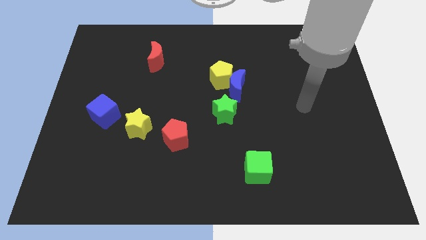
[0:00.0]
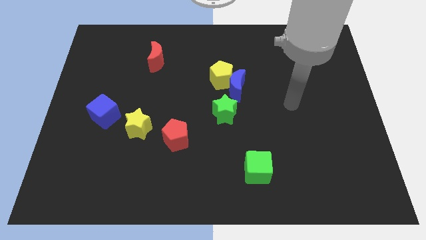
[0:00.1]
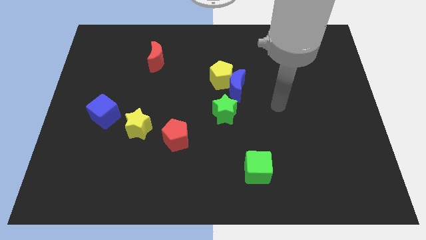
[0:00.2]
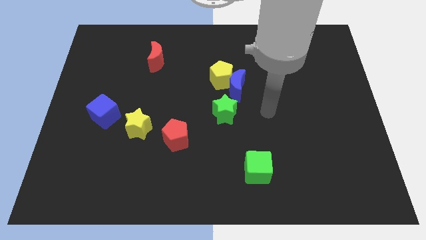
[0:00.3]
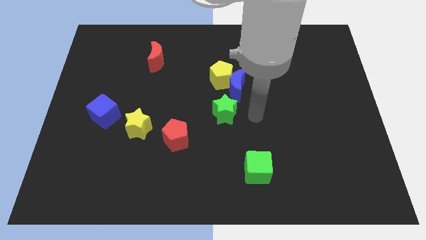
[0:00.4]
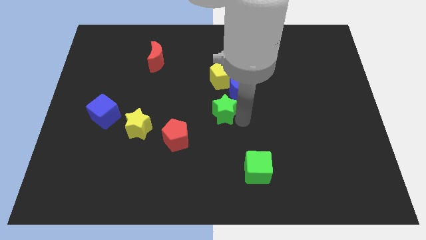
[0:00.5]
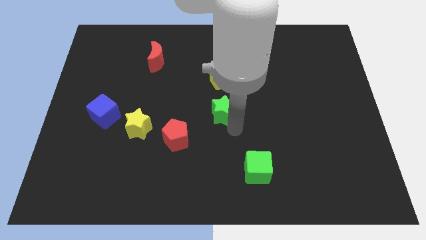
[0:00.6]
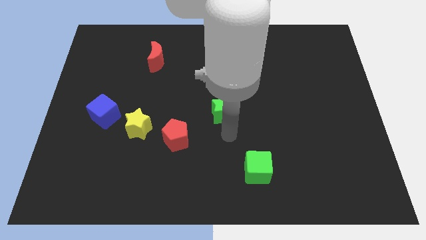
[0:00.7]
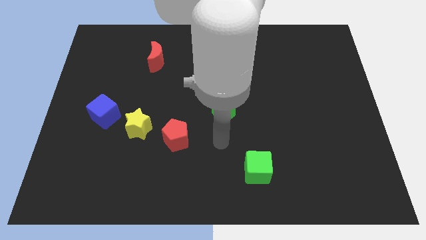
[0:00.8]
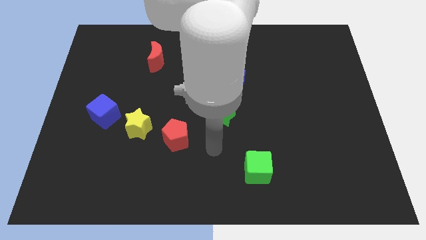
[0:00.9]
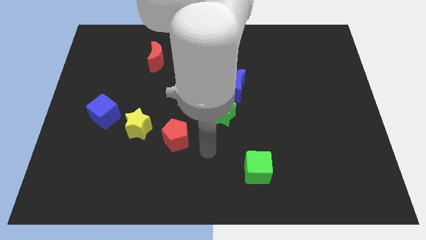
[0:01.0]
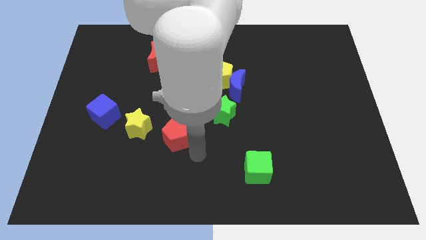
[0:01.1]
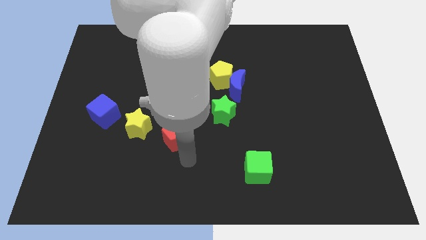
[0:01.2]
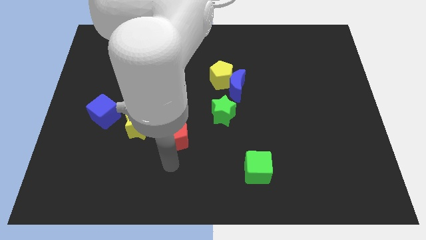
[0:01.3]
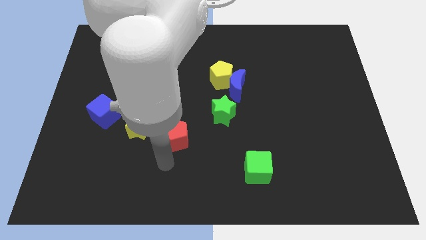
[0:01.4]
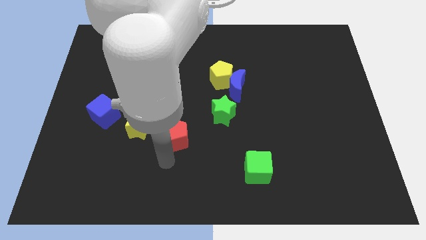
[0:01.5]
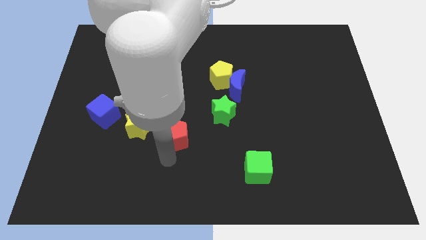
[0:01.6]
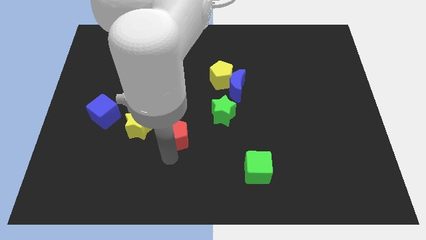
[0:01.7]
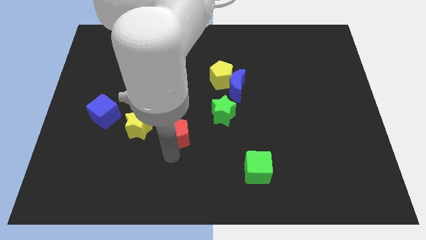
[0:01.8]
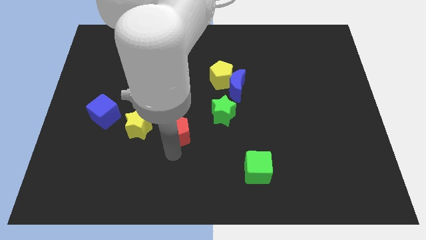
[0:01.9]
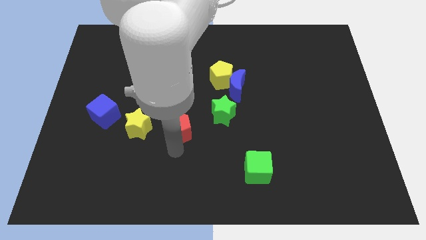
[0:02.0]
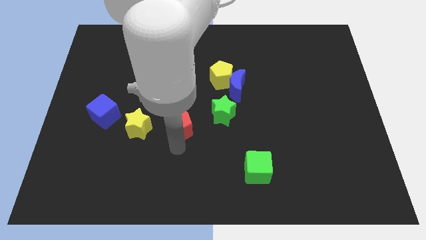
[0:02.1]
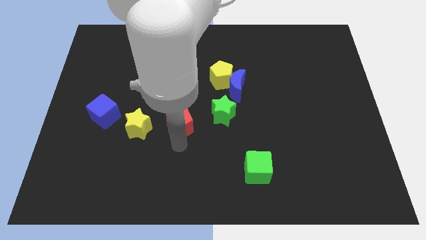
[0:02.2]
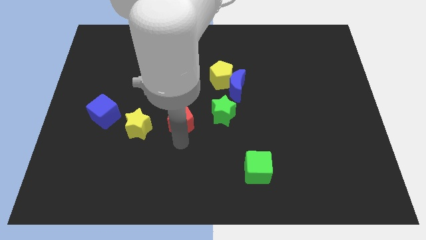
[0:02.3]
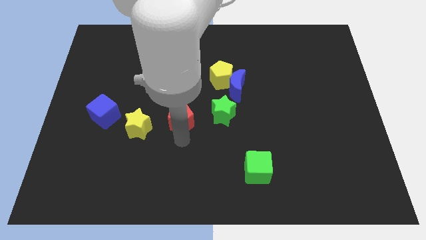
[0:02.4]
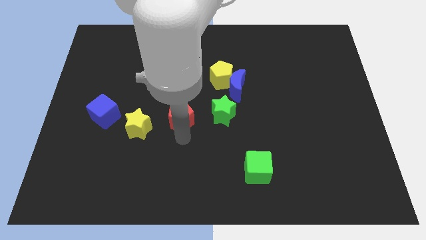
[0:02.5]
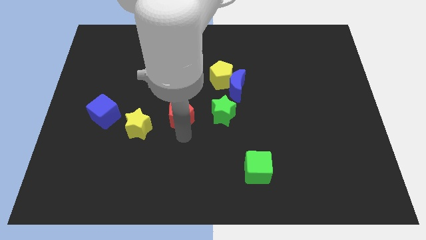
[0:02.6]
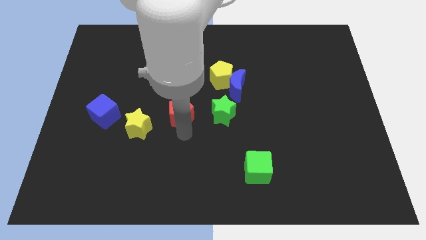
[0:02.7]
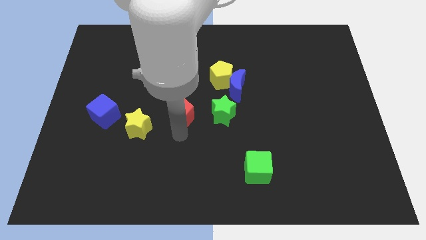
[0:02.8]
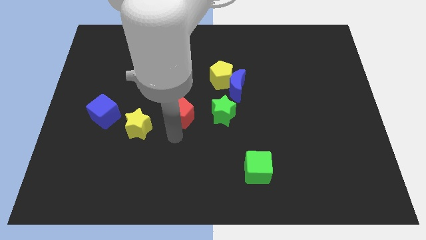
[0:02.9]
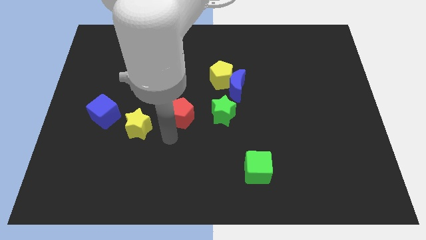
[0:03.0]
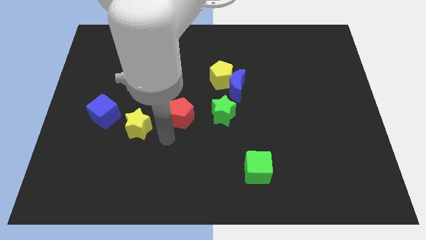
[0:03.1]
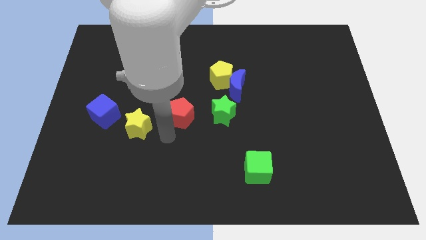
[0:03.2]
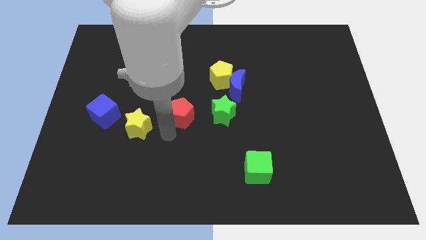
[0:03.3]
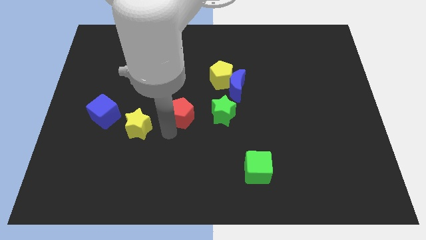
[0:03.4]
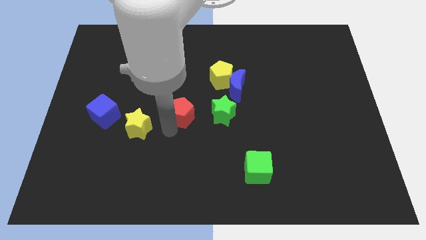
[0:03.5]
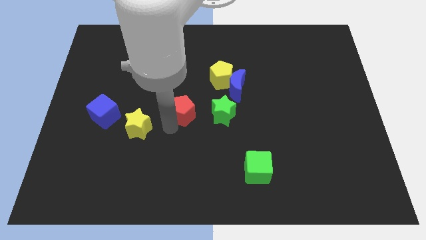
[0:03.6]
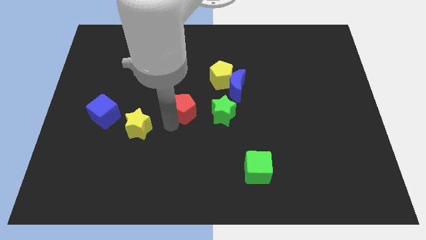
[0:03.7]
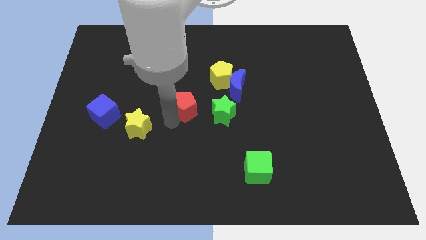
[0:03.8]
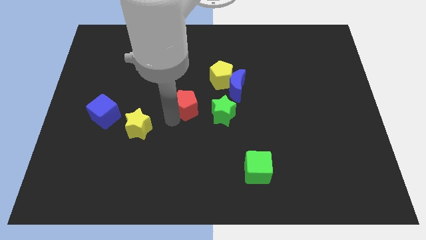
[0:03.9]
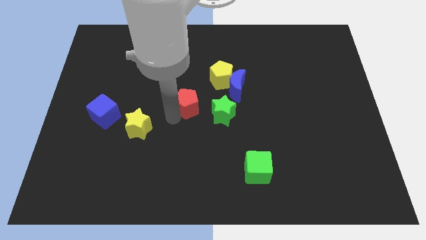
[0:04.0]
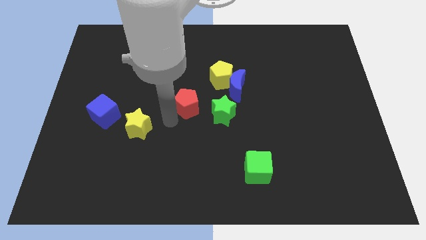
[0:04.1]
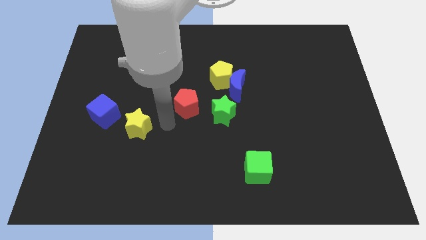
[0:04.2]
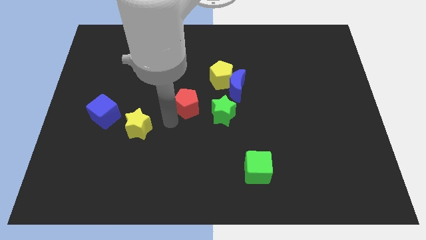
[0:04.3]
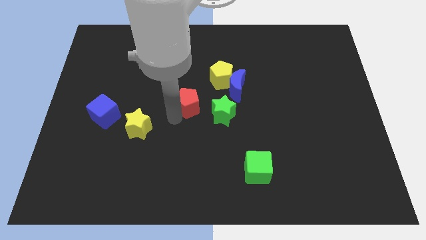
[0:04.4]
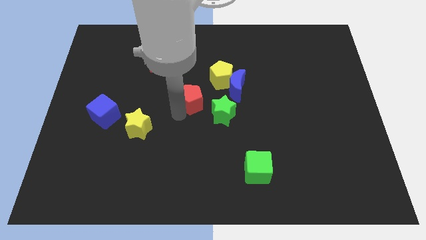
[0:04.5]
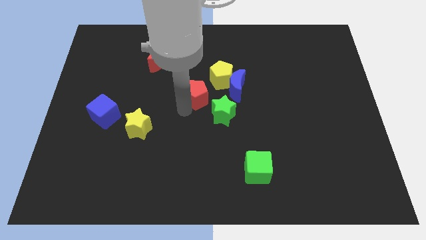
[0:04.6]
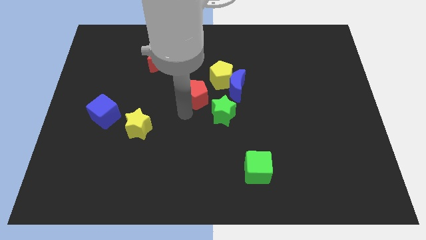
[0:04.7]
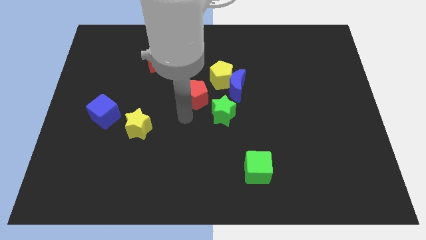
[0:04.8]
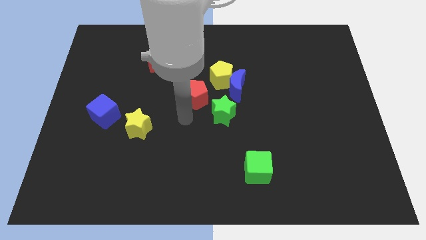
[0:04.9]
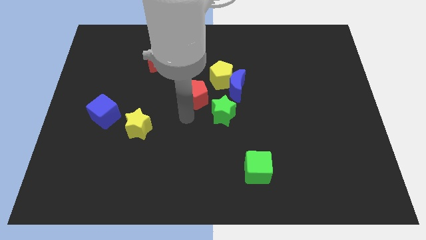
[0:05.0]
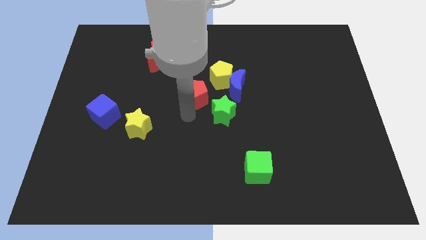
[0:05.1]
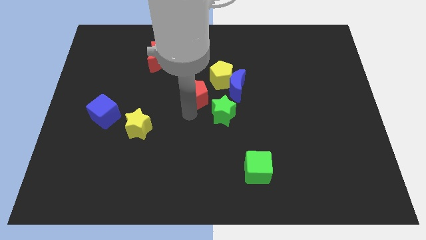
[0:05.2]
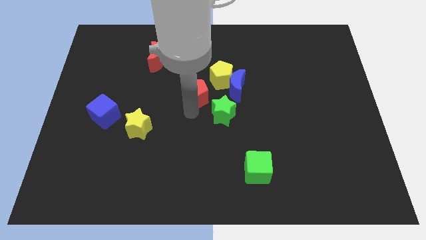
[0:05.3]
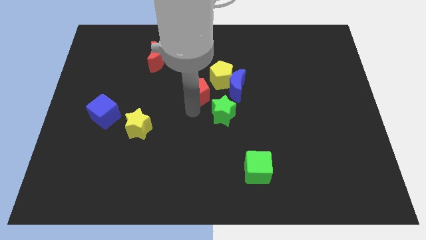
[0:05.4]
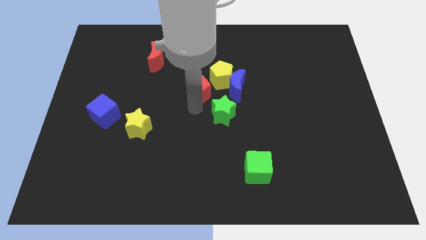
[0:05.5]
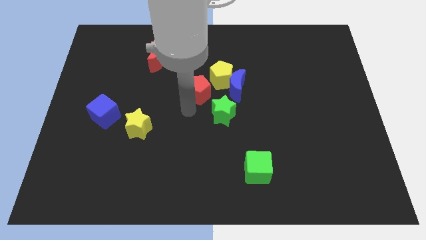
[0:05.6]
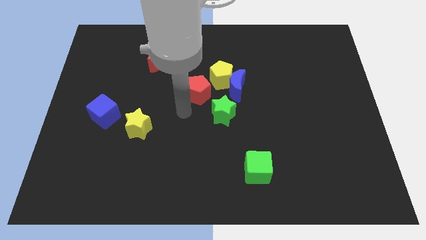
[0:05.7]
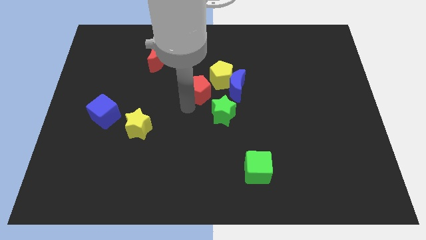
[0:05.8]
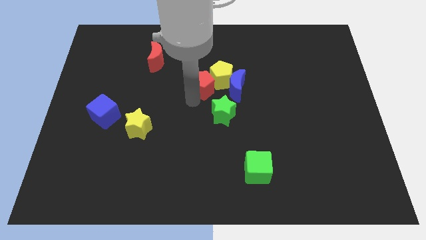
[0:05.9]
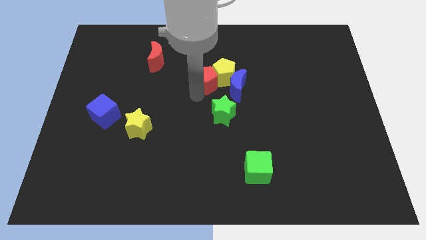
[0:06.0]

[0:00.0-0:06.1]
slide the red pentagon to the top left side of the blue moon

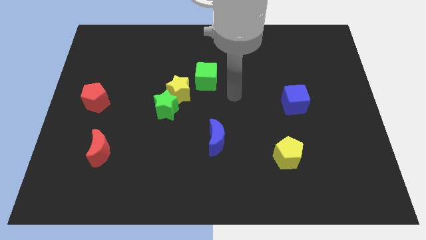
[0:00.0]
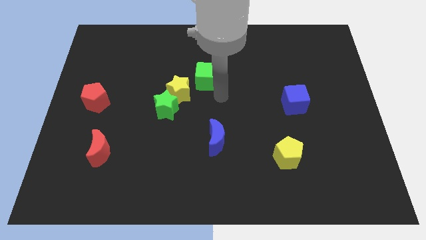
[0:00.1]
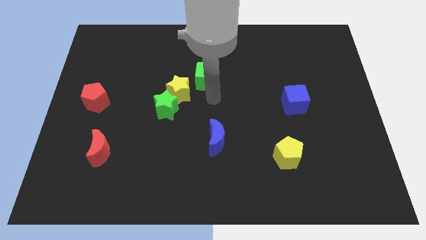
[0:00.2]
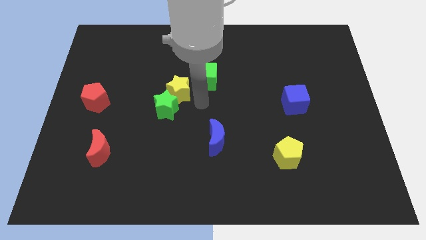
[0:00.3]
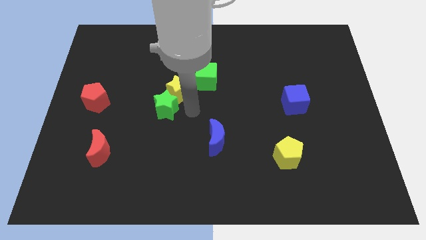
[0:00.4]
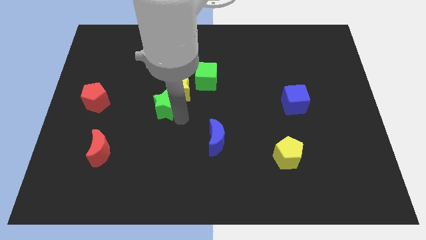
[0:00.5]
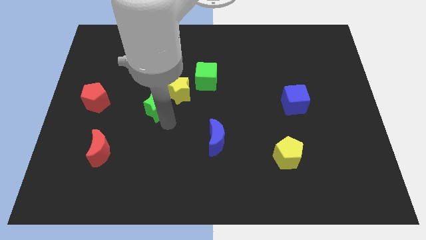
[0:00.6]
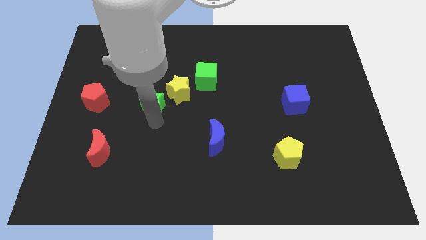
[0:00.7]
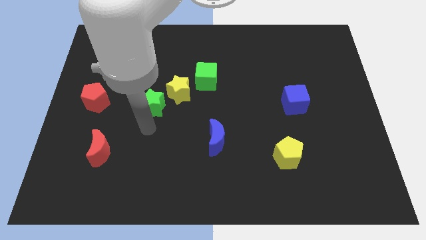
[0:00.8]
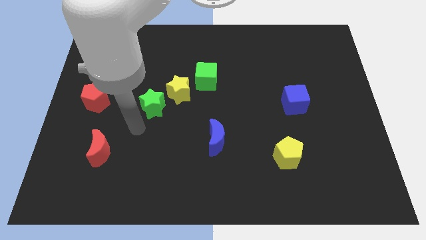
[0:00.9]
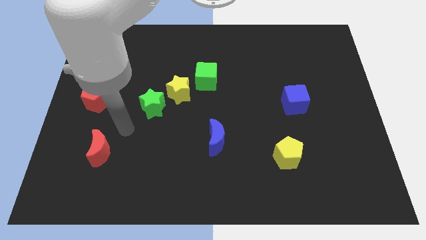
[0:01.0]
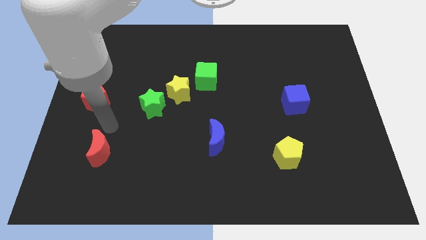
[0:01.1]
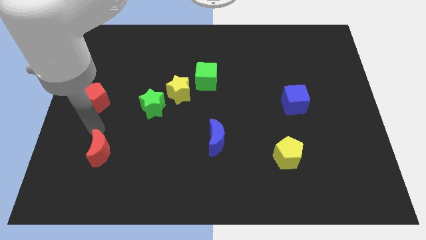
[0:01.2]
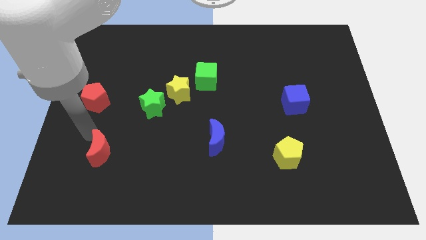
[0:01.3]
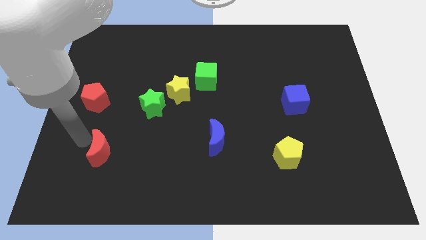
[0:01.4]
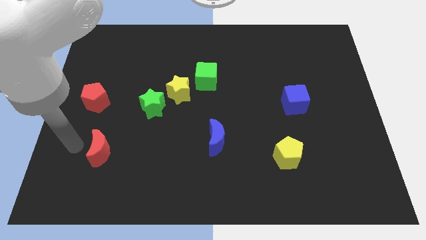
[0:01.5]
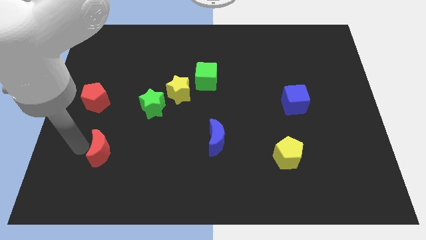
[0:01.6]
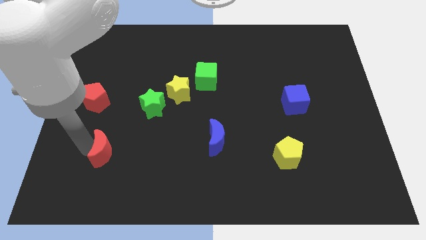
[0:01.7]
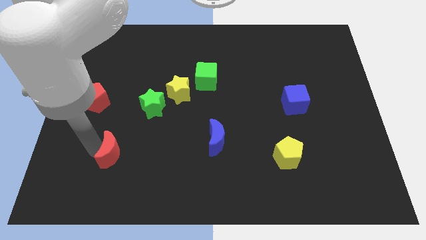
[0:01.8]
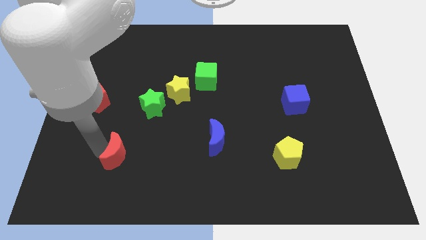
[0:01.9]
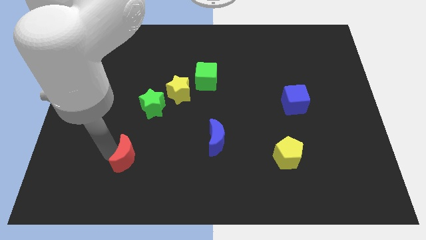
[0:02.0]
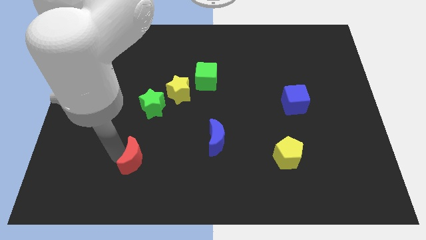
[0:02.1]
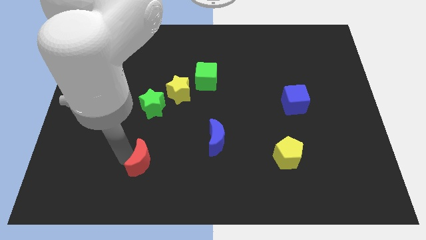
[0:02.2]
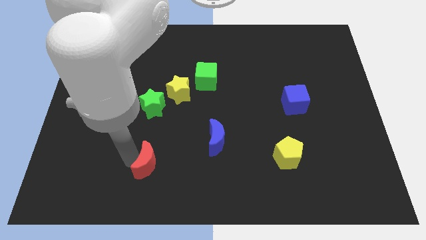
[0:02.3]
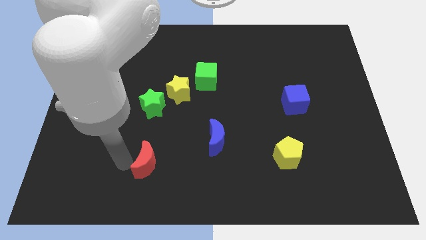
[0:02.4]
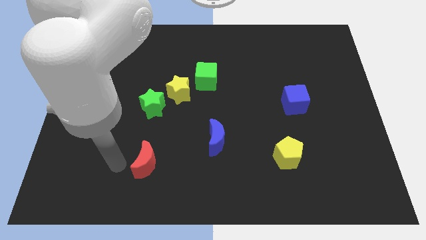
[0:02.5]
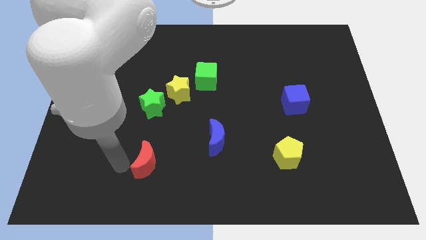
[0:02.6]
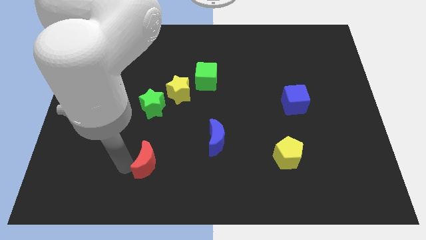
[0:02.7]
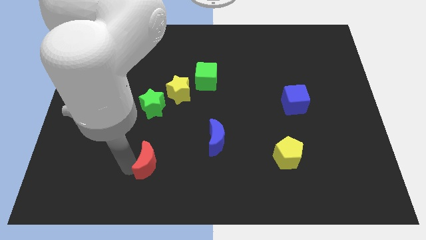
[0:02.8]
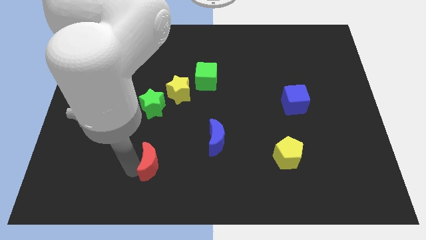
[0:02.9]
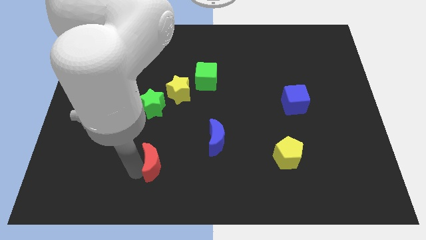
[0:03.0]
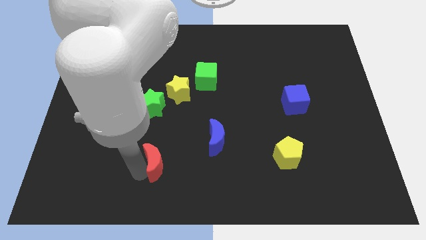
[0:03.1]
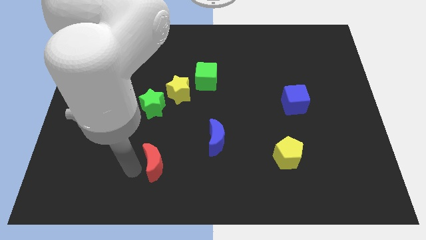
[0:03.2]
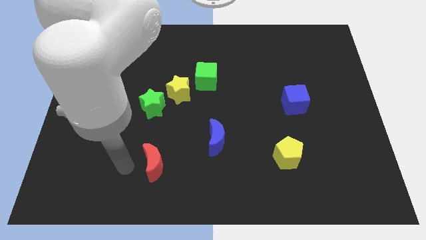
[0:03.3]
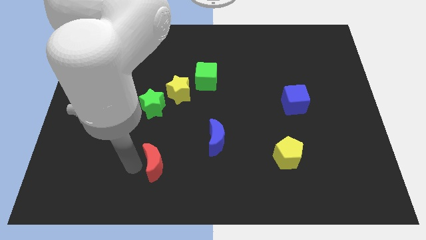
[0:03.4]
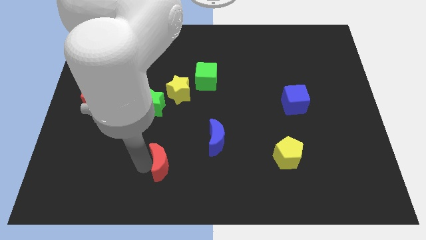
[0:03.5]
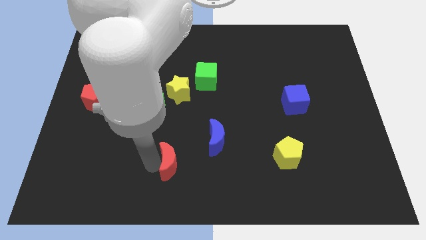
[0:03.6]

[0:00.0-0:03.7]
move the red moon to the bottom left side of the blue moon
